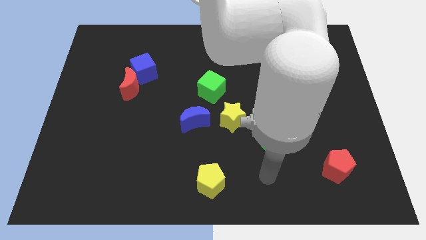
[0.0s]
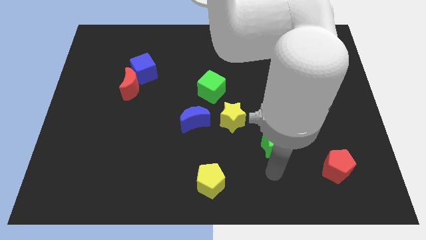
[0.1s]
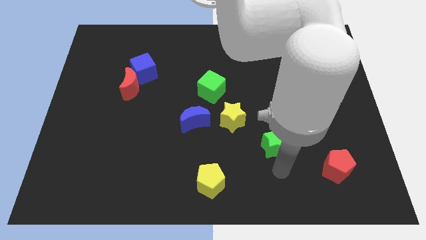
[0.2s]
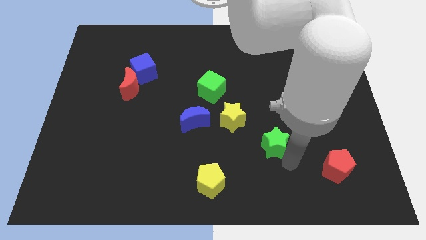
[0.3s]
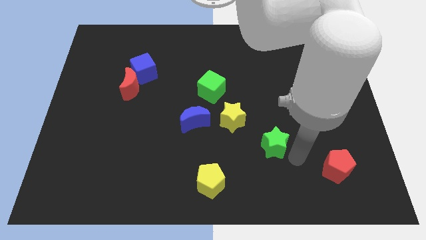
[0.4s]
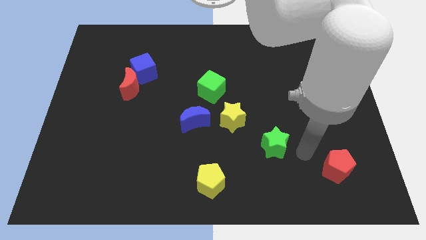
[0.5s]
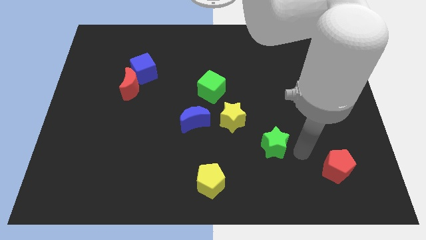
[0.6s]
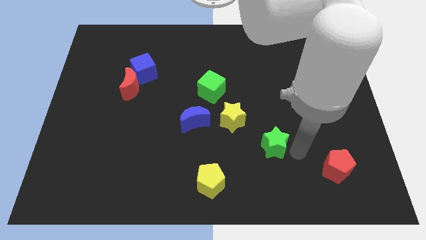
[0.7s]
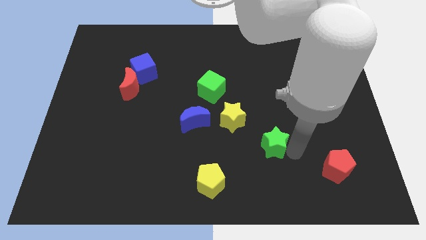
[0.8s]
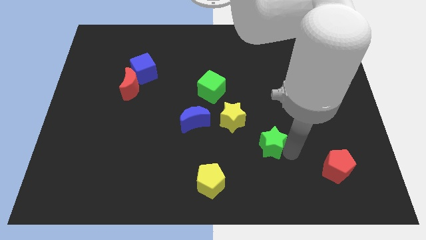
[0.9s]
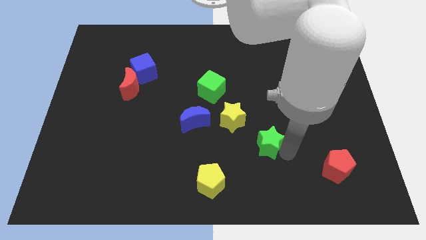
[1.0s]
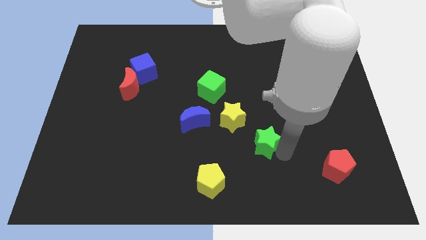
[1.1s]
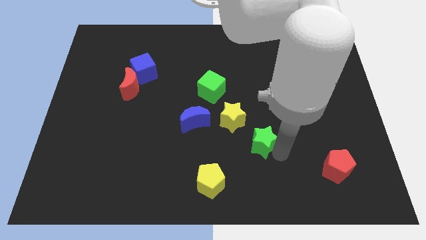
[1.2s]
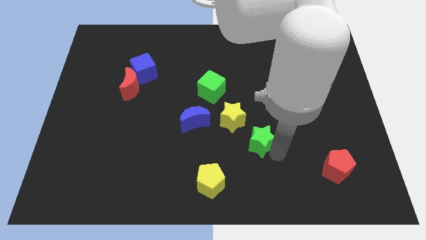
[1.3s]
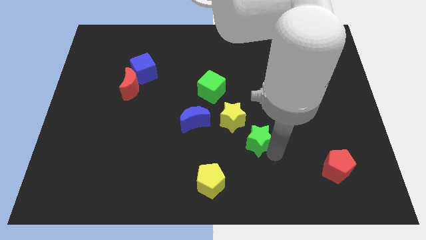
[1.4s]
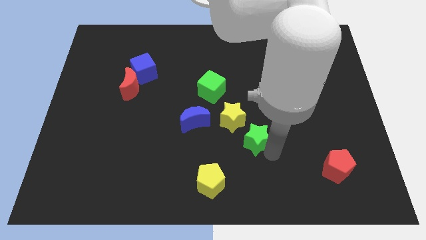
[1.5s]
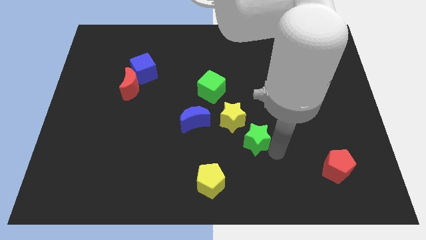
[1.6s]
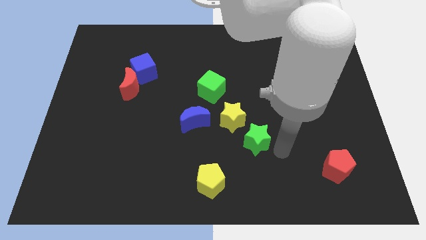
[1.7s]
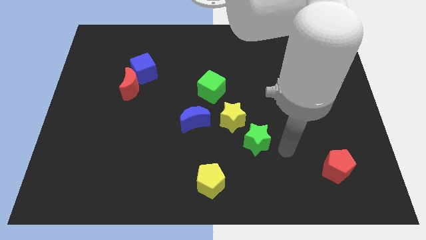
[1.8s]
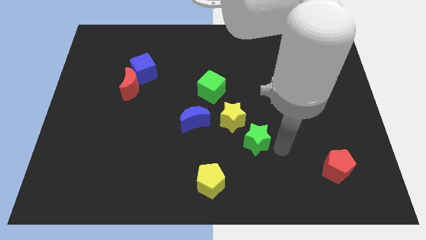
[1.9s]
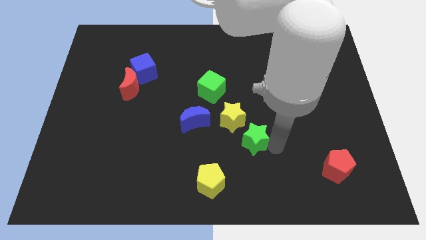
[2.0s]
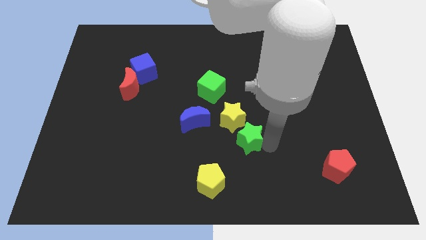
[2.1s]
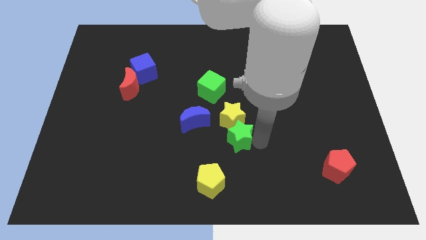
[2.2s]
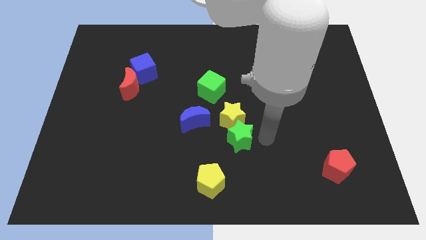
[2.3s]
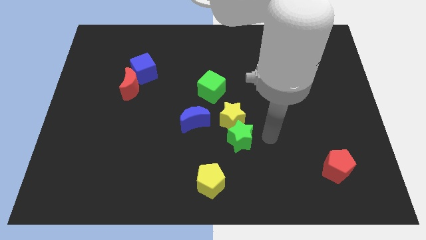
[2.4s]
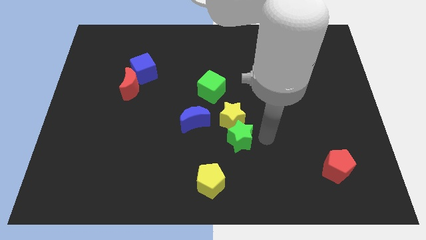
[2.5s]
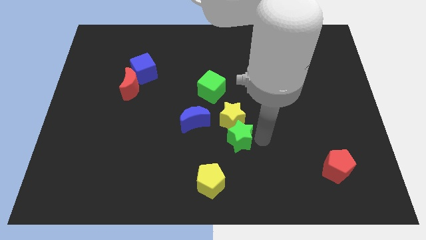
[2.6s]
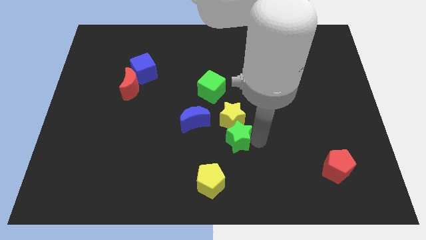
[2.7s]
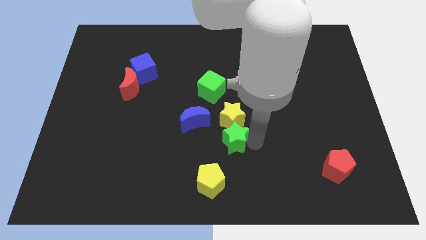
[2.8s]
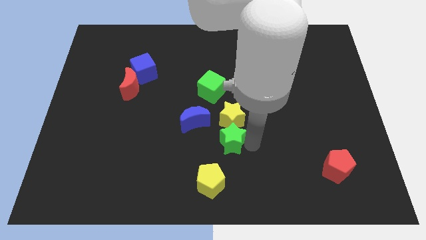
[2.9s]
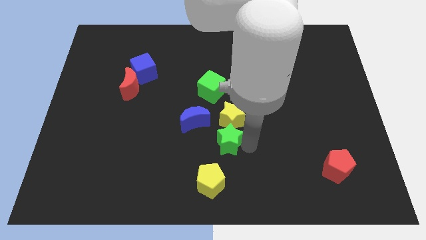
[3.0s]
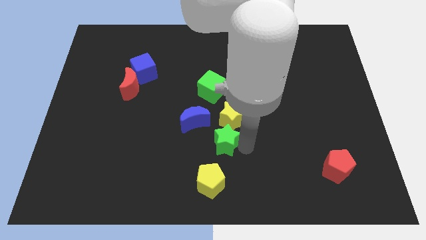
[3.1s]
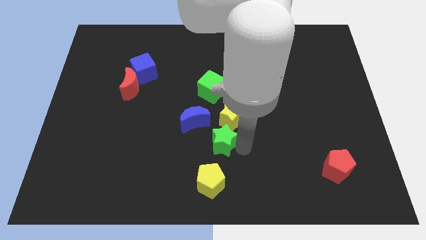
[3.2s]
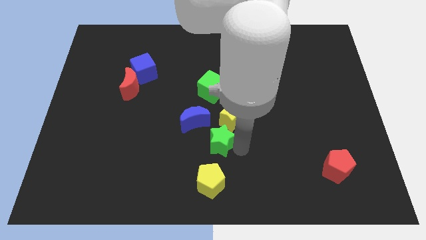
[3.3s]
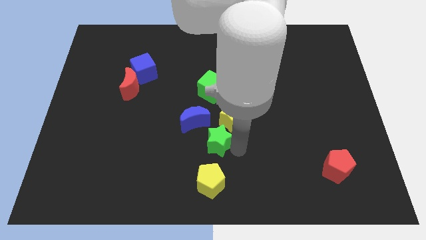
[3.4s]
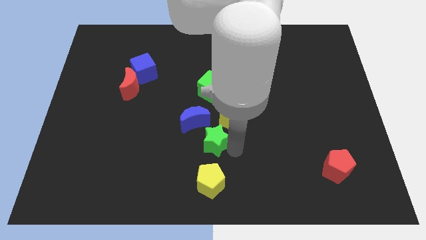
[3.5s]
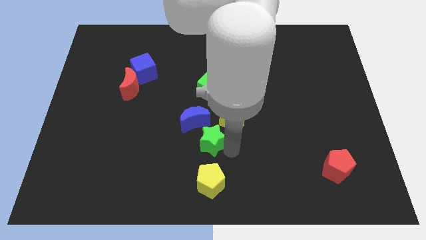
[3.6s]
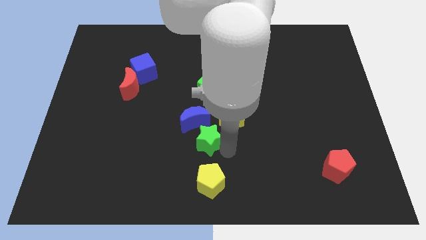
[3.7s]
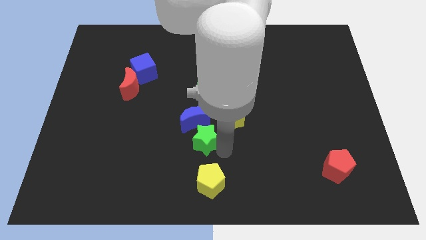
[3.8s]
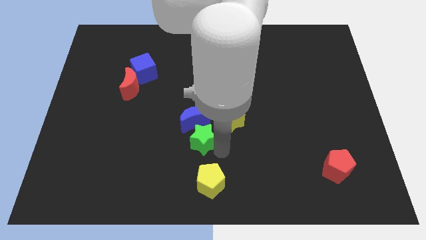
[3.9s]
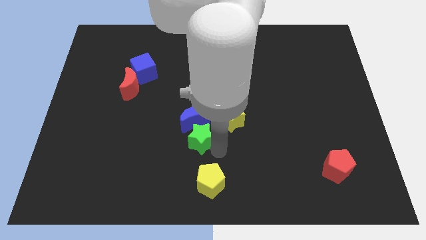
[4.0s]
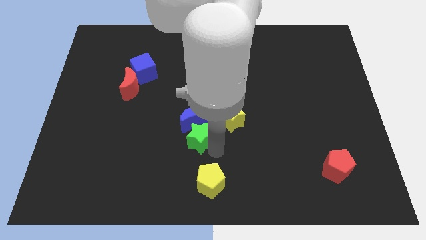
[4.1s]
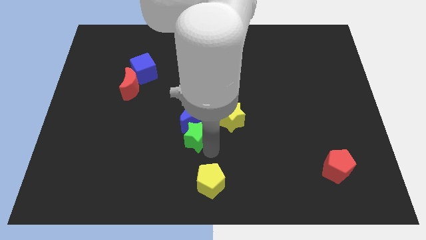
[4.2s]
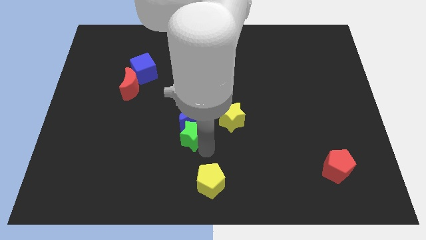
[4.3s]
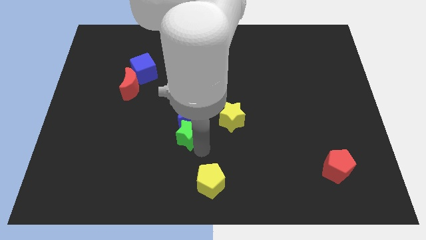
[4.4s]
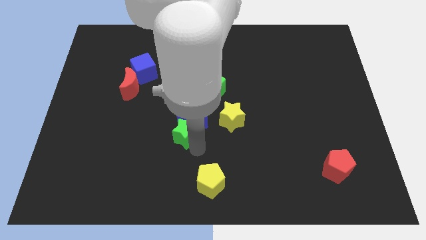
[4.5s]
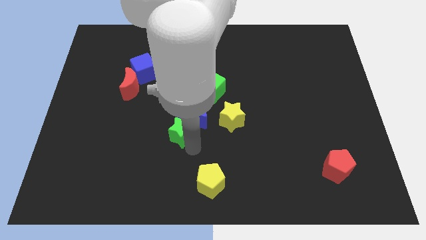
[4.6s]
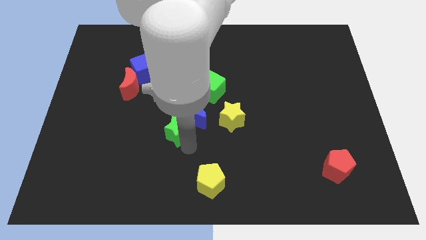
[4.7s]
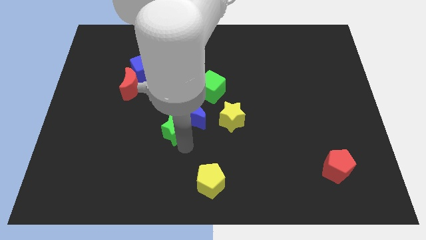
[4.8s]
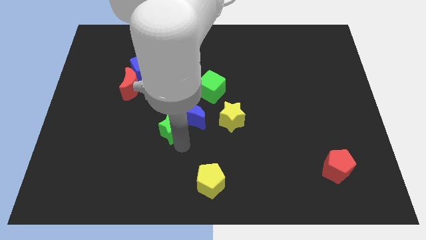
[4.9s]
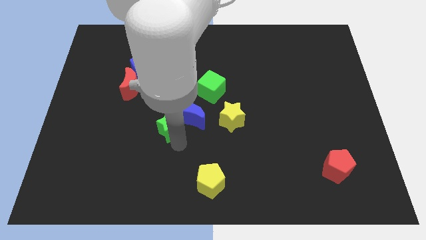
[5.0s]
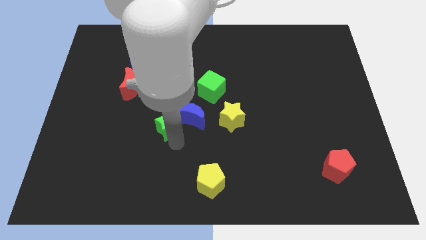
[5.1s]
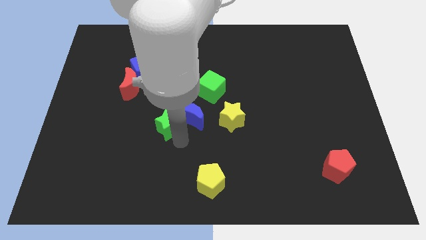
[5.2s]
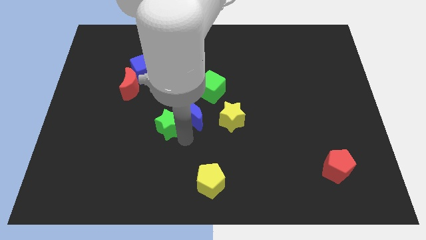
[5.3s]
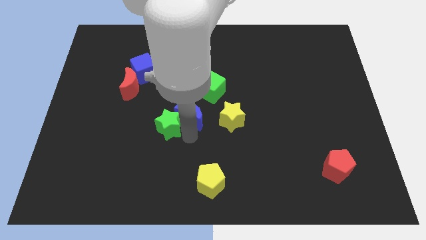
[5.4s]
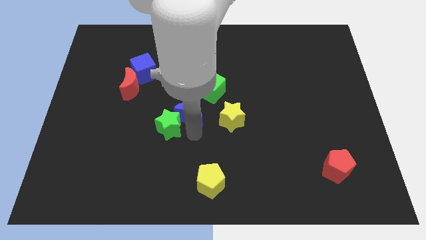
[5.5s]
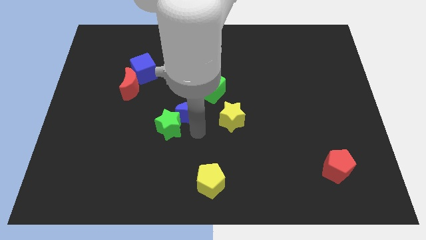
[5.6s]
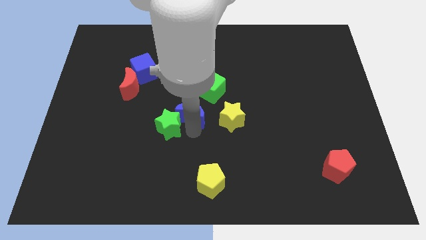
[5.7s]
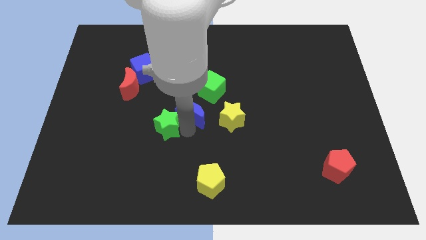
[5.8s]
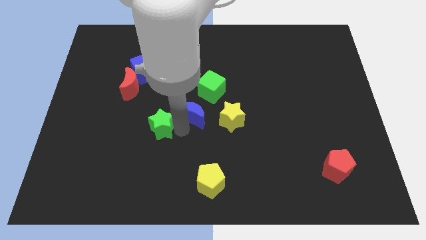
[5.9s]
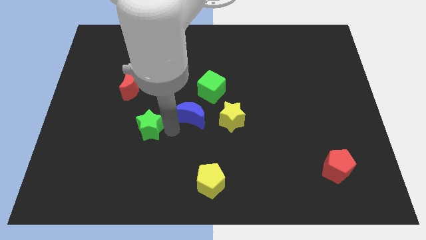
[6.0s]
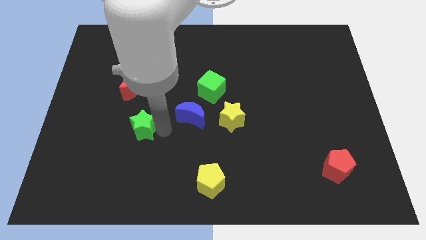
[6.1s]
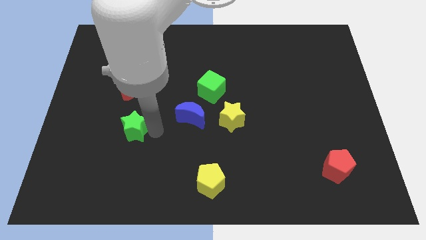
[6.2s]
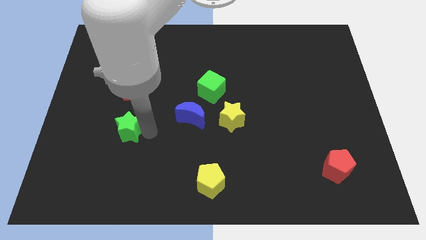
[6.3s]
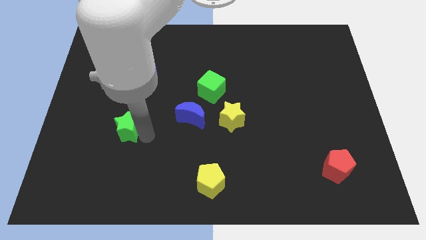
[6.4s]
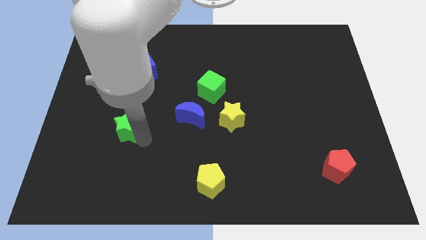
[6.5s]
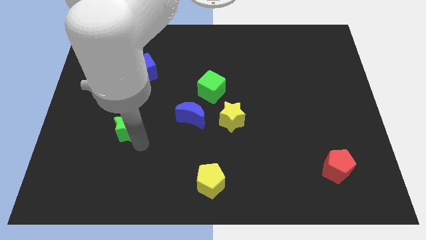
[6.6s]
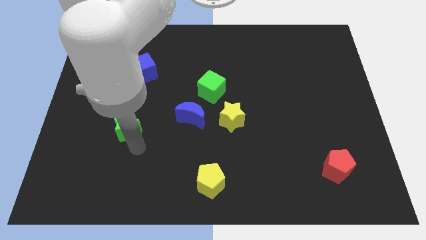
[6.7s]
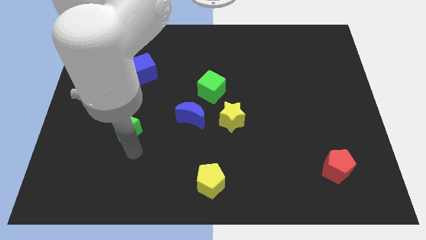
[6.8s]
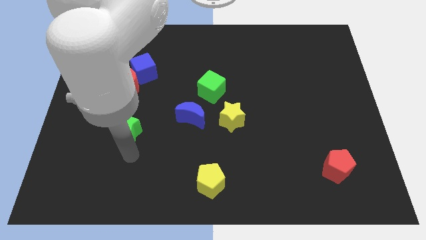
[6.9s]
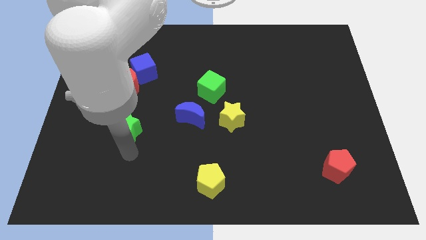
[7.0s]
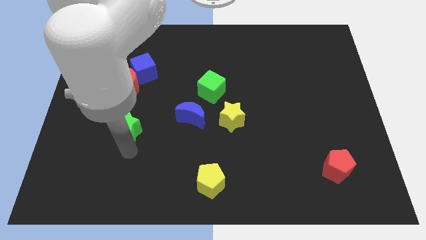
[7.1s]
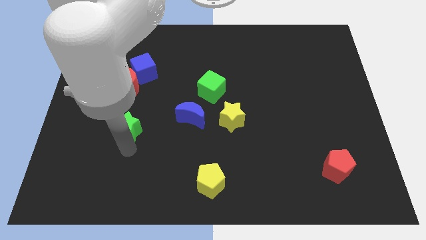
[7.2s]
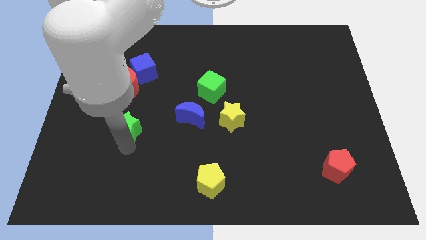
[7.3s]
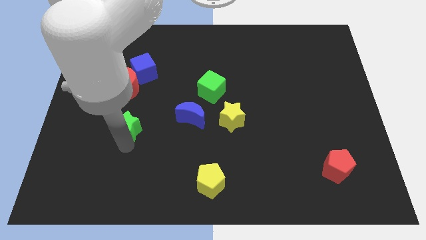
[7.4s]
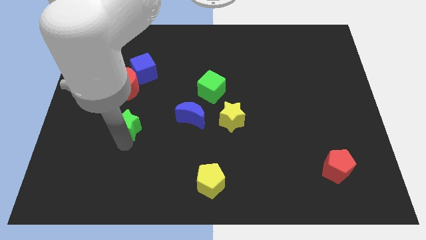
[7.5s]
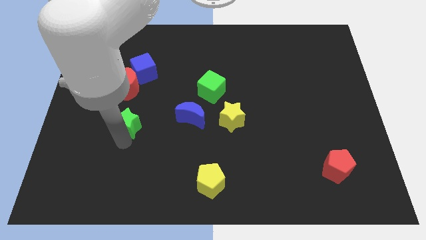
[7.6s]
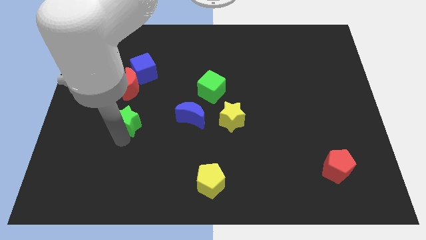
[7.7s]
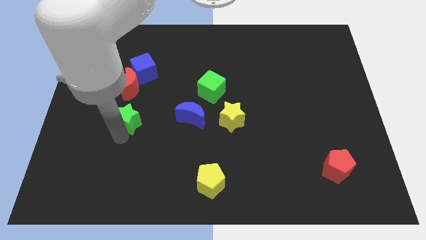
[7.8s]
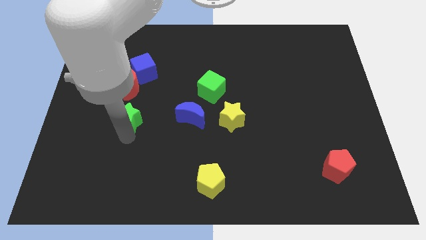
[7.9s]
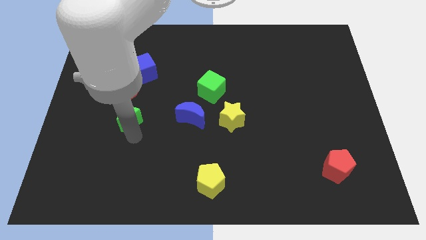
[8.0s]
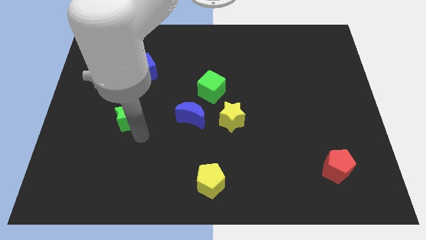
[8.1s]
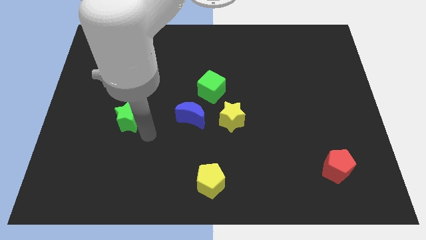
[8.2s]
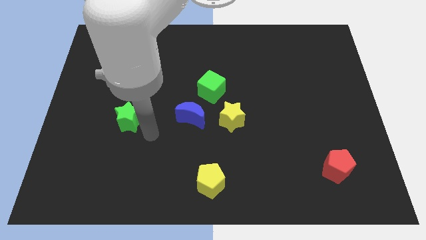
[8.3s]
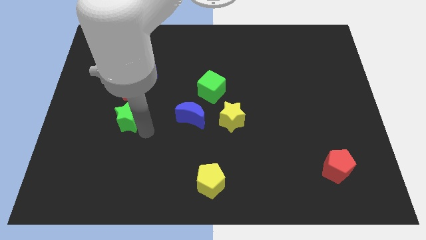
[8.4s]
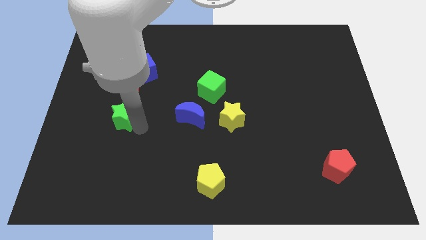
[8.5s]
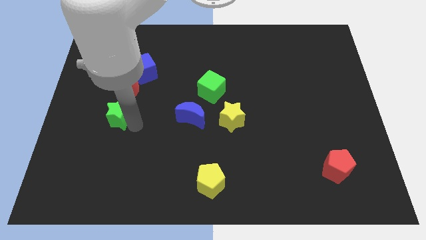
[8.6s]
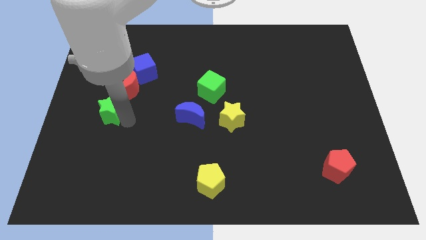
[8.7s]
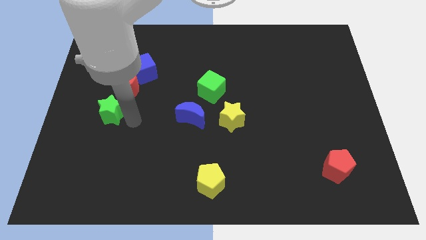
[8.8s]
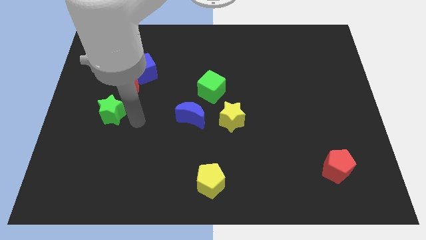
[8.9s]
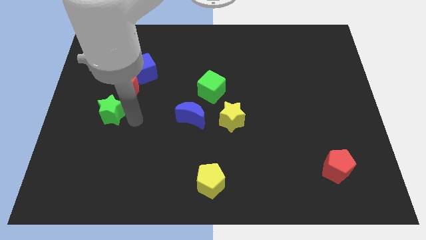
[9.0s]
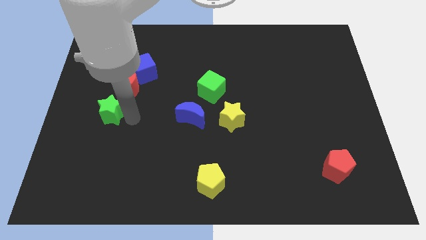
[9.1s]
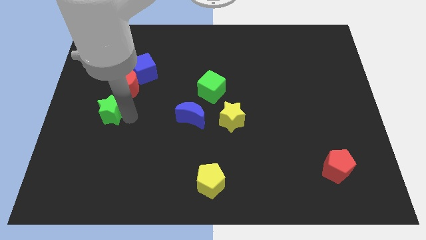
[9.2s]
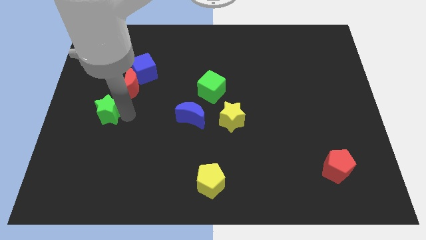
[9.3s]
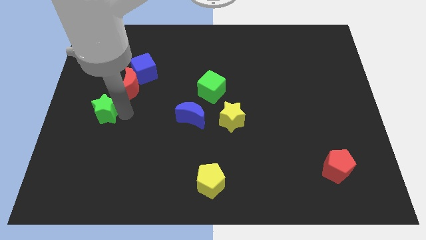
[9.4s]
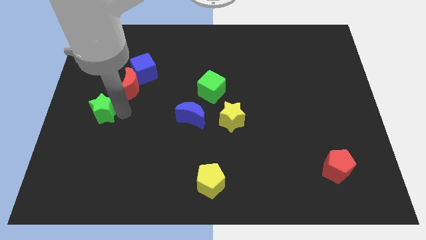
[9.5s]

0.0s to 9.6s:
push the green star to the center left
